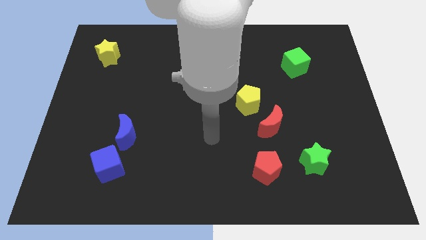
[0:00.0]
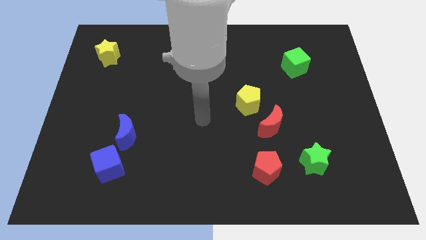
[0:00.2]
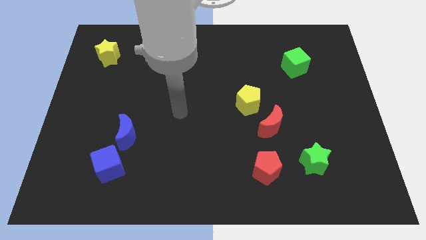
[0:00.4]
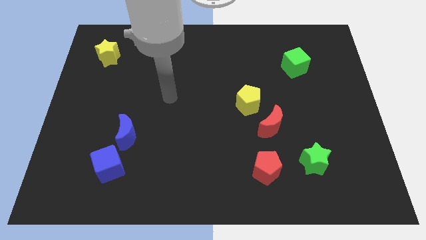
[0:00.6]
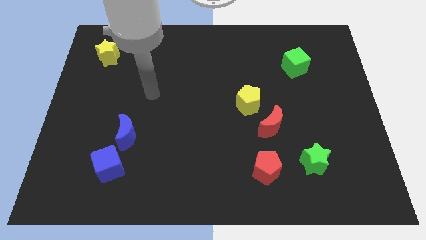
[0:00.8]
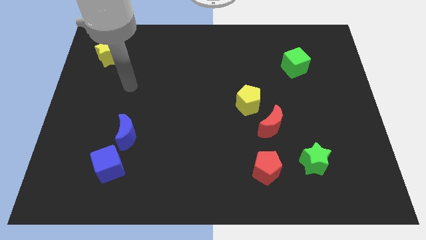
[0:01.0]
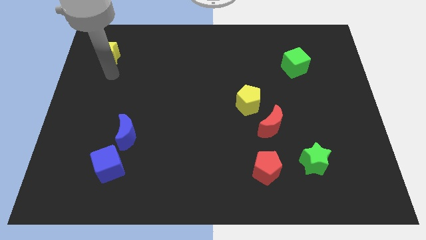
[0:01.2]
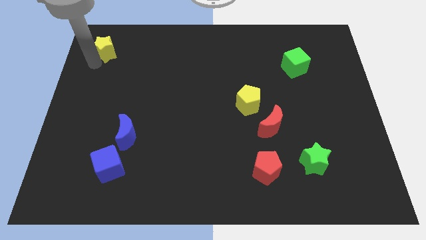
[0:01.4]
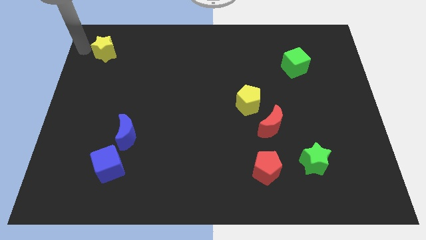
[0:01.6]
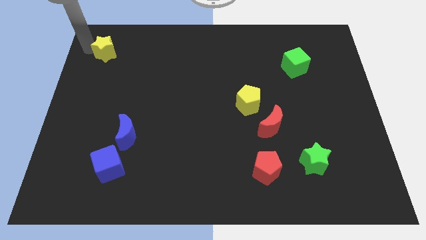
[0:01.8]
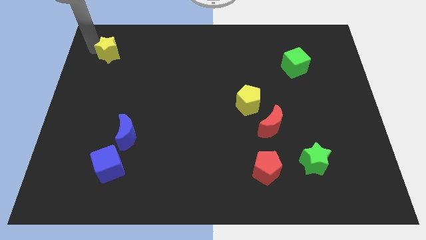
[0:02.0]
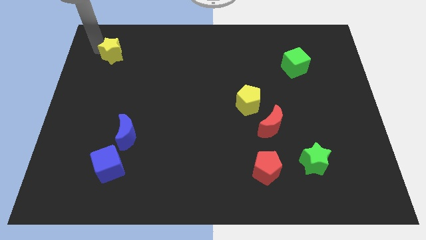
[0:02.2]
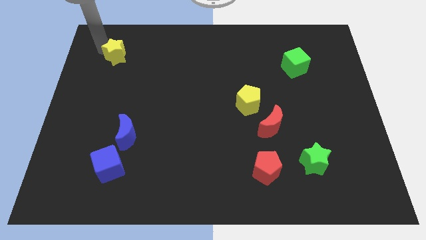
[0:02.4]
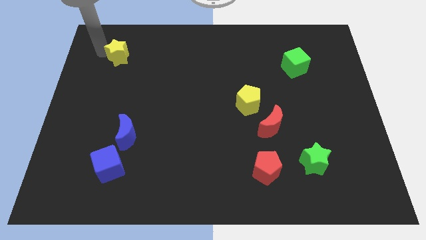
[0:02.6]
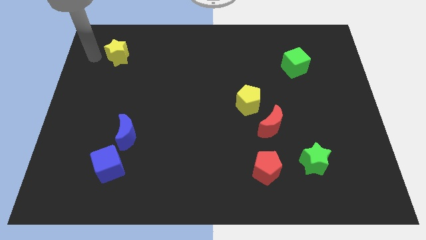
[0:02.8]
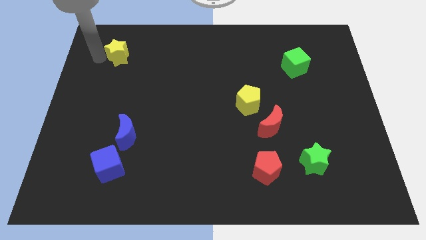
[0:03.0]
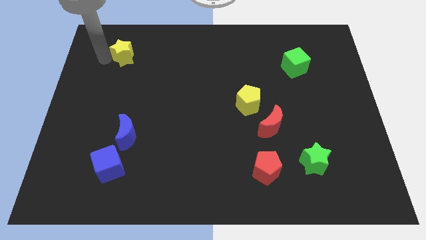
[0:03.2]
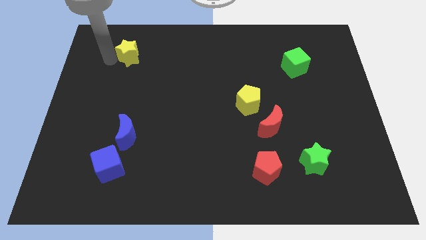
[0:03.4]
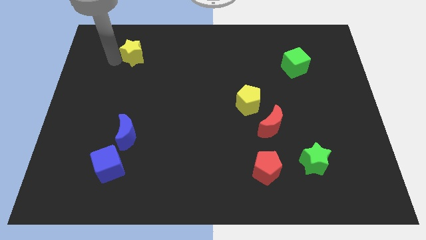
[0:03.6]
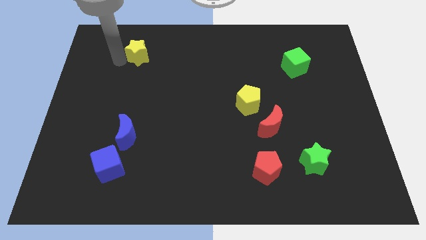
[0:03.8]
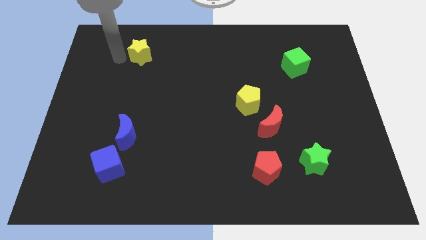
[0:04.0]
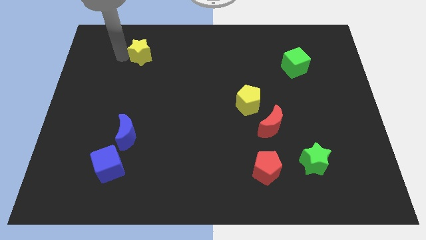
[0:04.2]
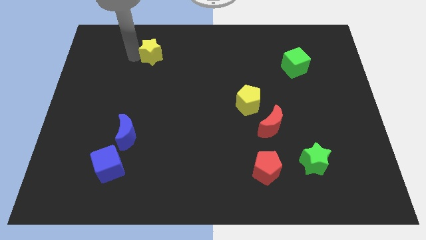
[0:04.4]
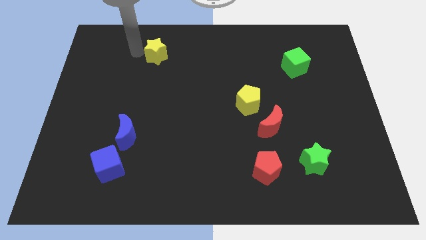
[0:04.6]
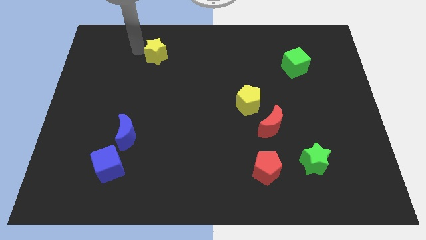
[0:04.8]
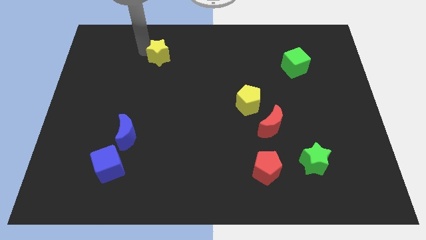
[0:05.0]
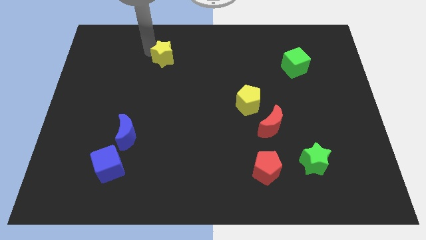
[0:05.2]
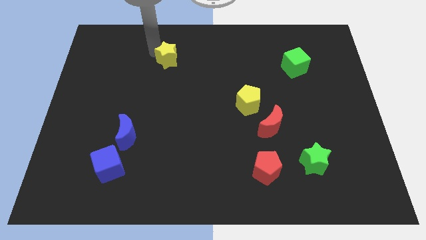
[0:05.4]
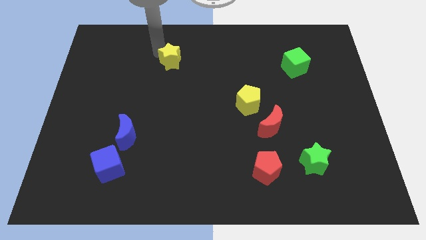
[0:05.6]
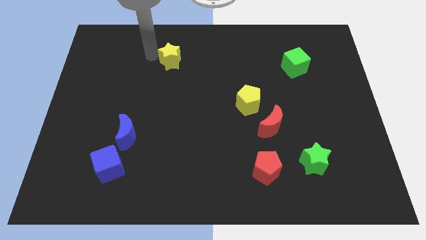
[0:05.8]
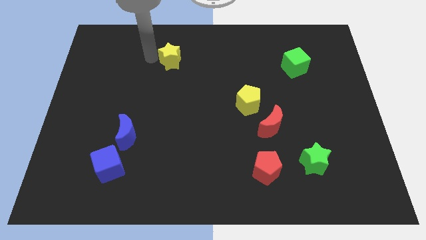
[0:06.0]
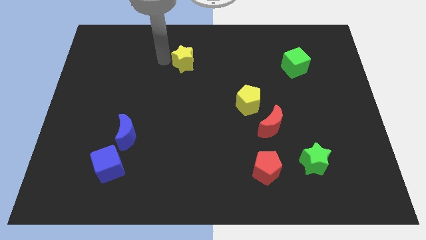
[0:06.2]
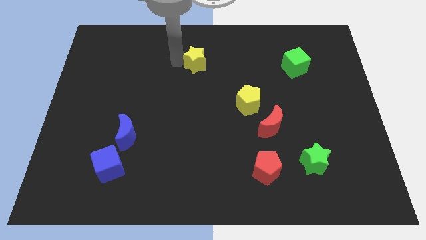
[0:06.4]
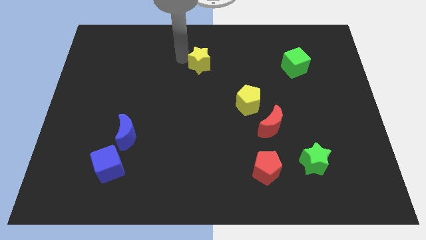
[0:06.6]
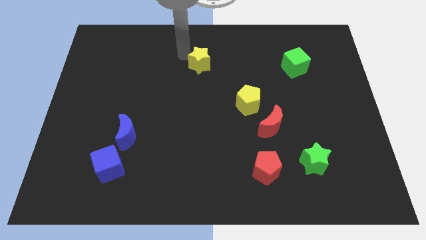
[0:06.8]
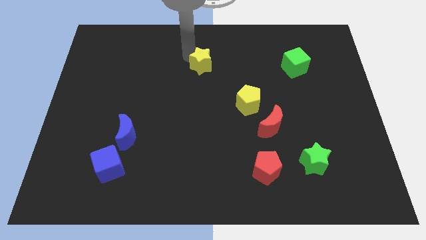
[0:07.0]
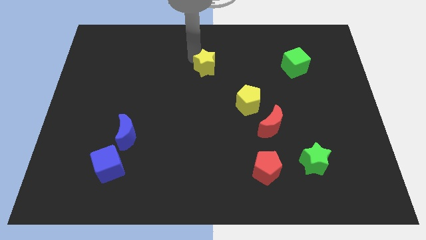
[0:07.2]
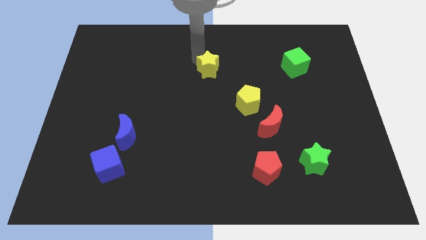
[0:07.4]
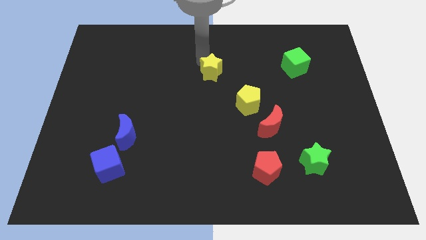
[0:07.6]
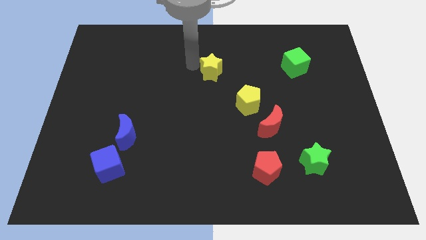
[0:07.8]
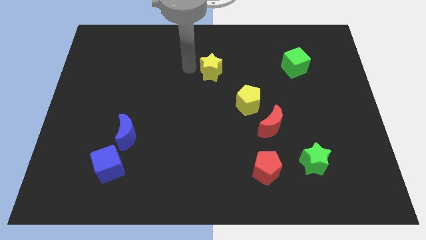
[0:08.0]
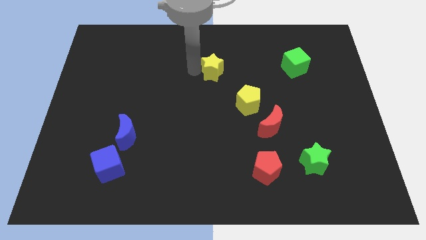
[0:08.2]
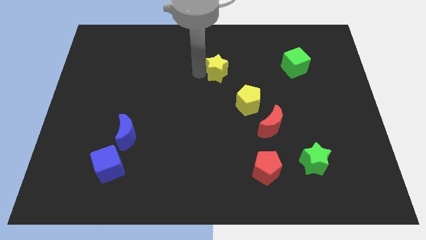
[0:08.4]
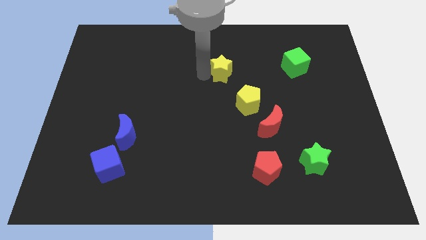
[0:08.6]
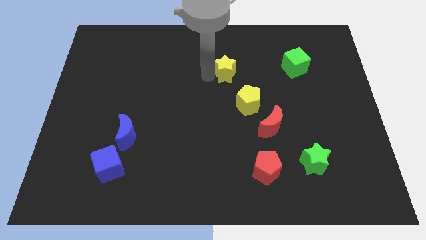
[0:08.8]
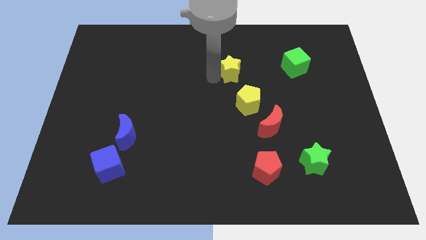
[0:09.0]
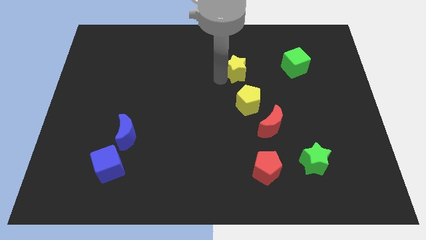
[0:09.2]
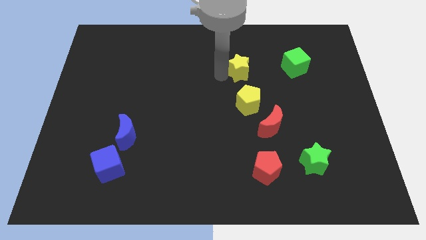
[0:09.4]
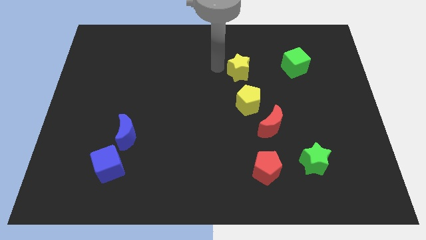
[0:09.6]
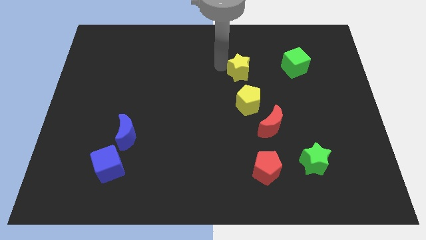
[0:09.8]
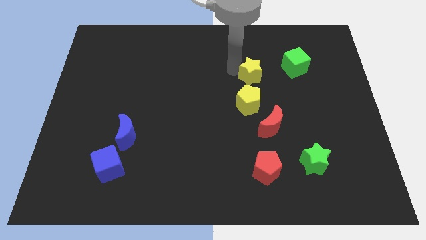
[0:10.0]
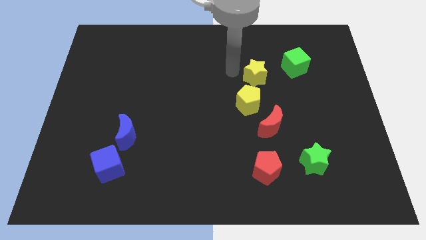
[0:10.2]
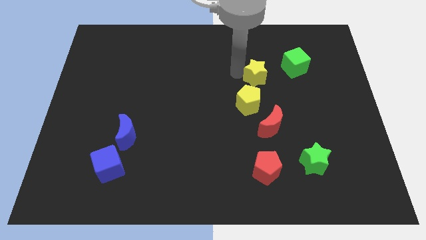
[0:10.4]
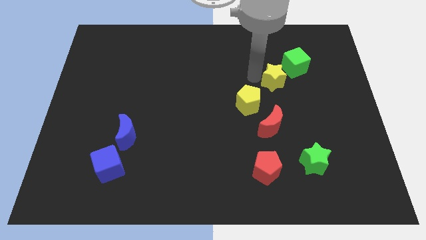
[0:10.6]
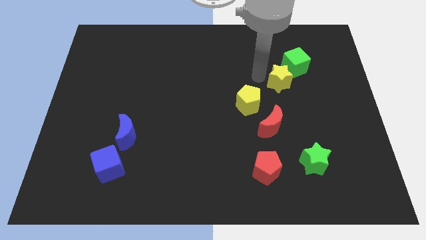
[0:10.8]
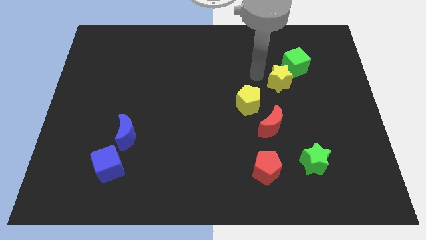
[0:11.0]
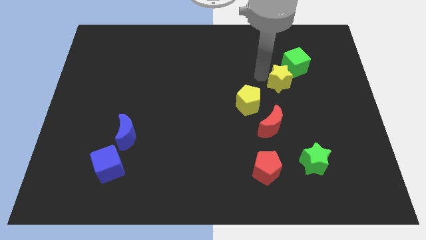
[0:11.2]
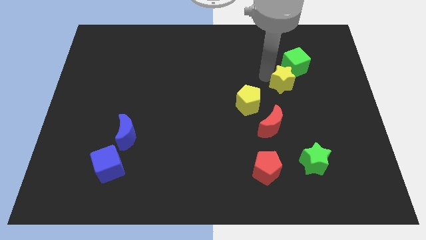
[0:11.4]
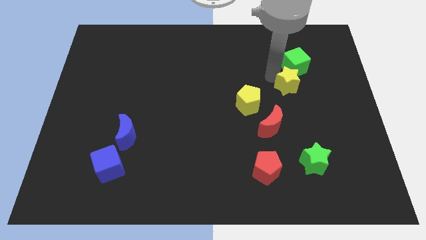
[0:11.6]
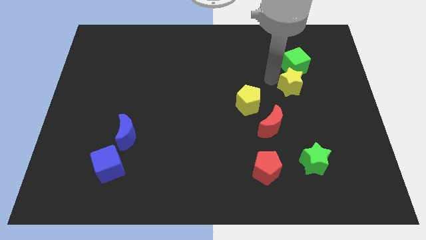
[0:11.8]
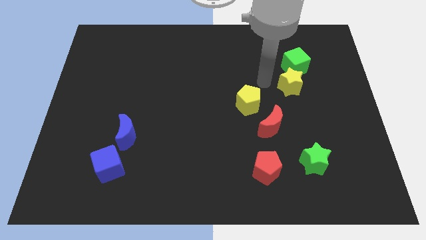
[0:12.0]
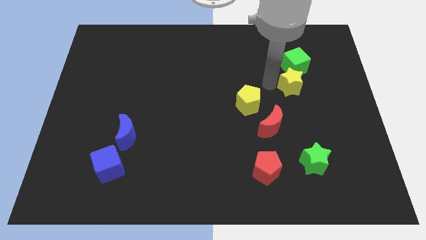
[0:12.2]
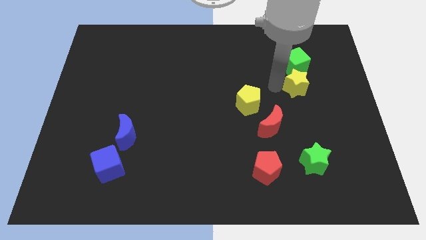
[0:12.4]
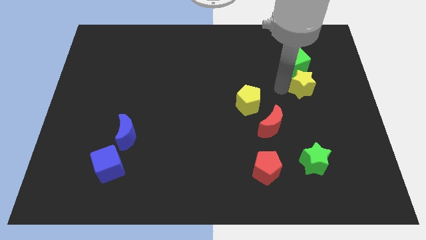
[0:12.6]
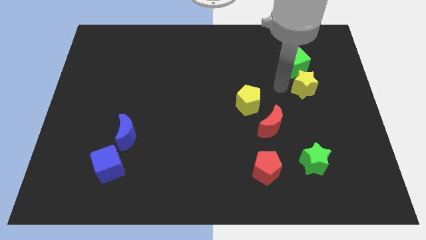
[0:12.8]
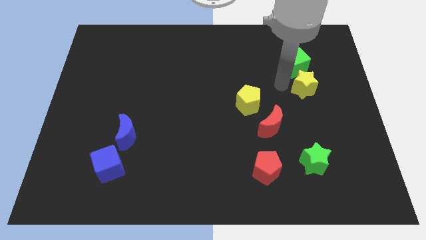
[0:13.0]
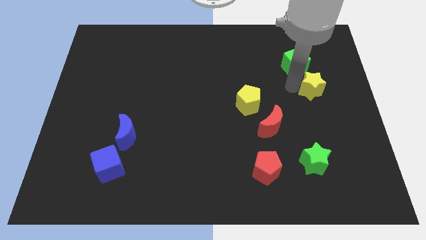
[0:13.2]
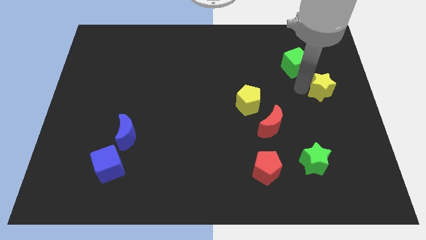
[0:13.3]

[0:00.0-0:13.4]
push the yellow star to the right side
